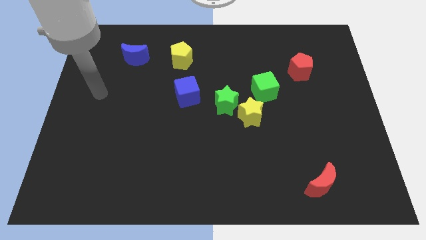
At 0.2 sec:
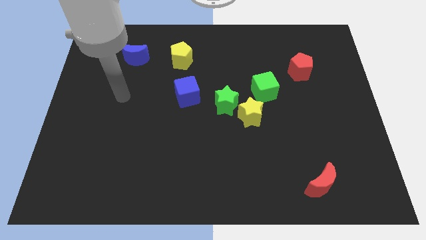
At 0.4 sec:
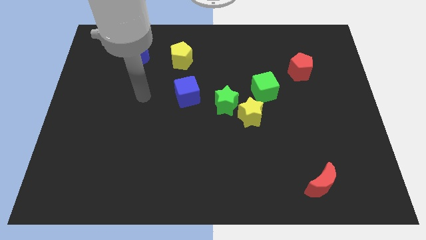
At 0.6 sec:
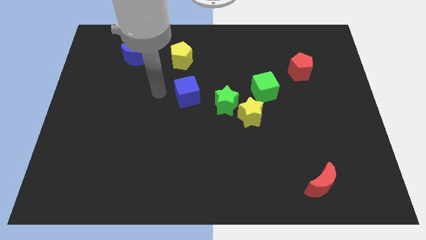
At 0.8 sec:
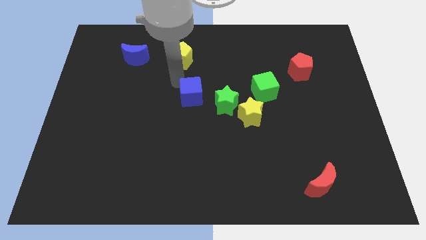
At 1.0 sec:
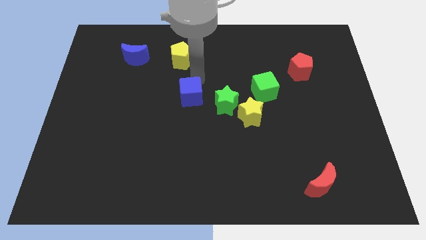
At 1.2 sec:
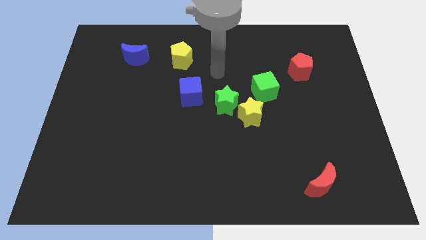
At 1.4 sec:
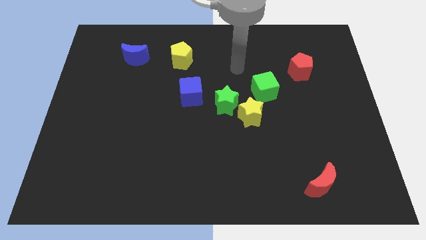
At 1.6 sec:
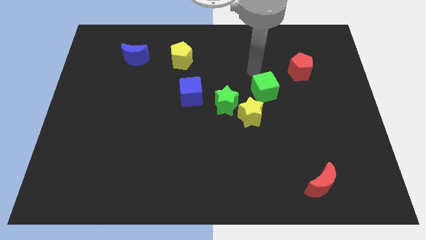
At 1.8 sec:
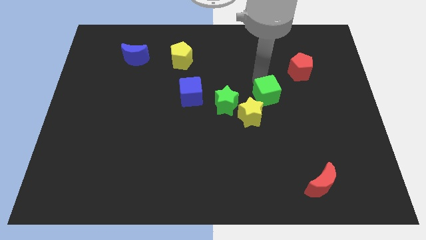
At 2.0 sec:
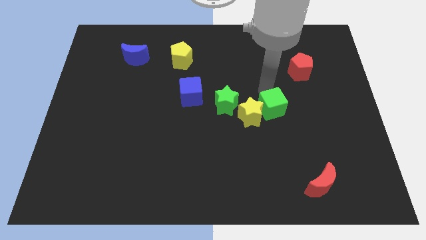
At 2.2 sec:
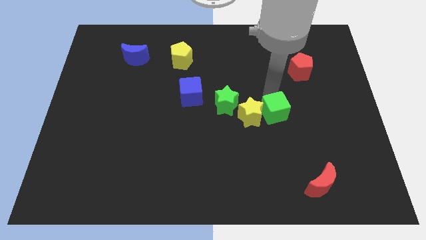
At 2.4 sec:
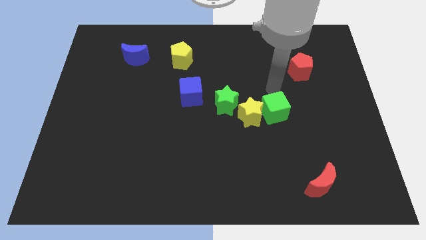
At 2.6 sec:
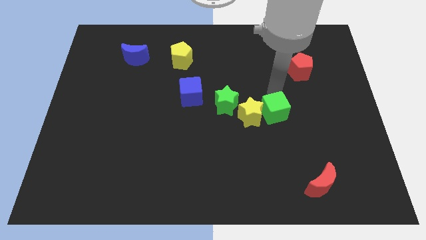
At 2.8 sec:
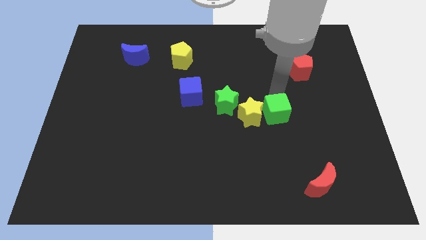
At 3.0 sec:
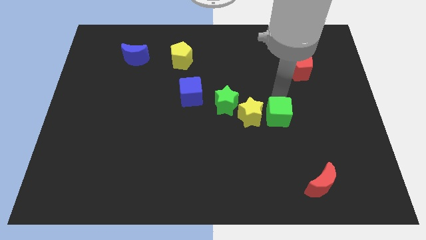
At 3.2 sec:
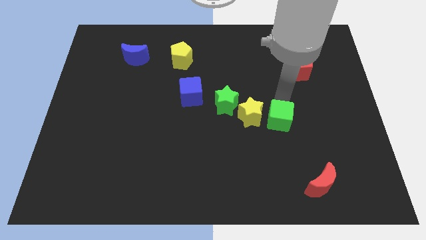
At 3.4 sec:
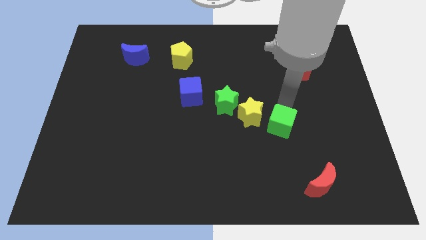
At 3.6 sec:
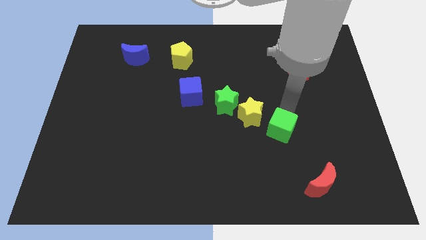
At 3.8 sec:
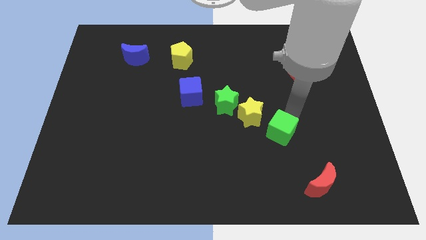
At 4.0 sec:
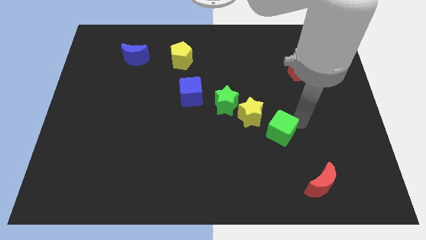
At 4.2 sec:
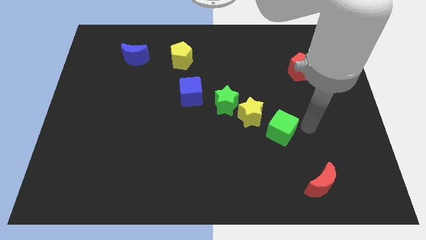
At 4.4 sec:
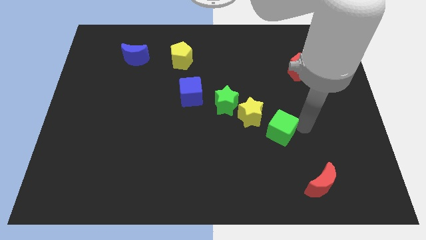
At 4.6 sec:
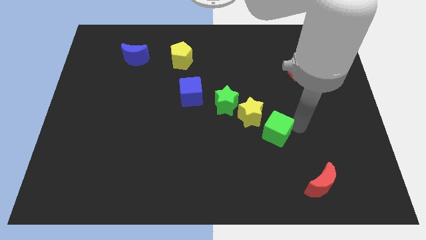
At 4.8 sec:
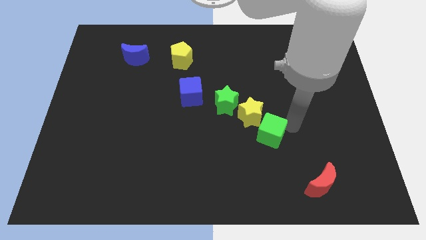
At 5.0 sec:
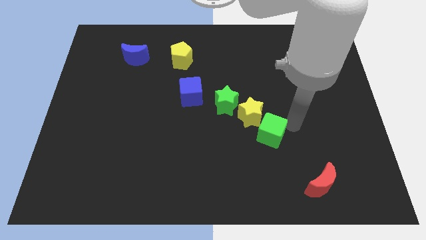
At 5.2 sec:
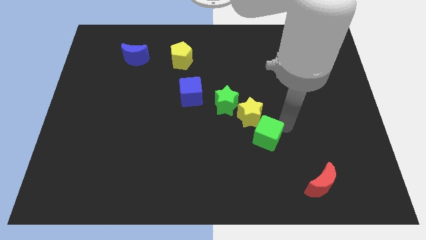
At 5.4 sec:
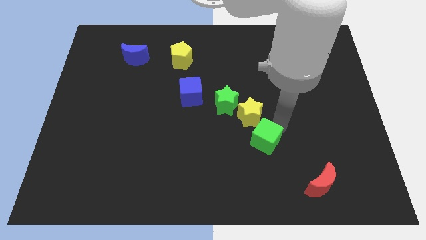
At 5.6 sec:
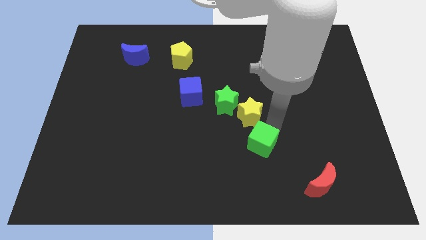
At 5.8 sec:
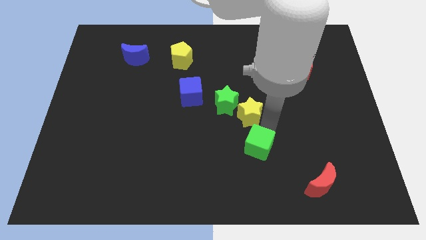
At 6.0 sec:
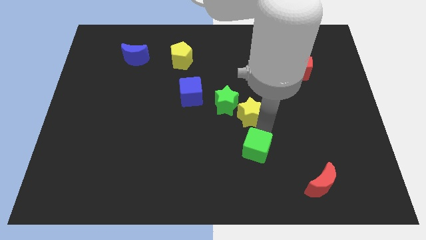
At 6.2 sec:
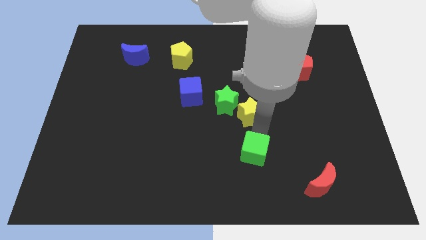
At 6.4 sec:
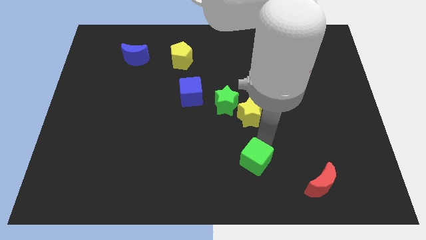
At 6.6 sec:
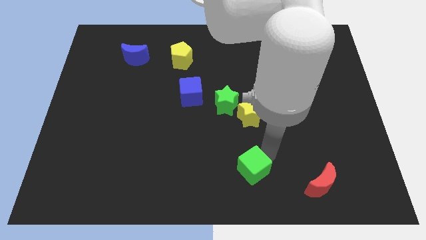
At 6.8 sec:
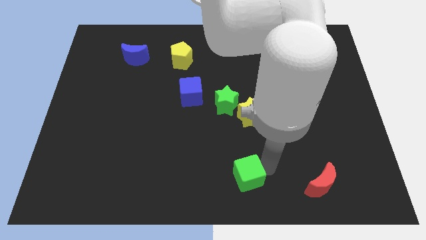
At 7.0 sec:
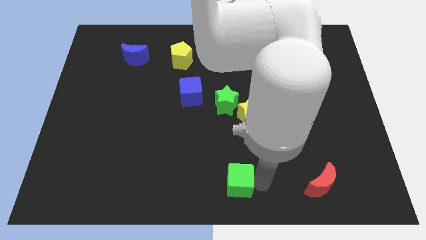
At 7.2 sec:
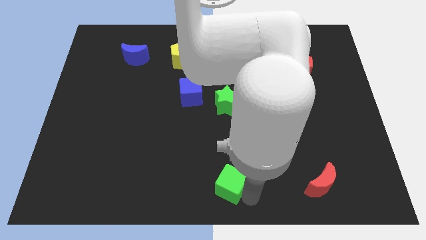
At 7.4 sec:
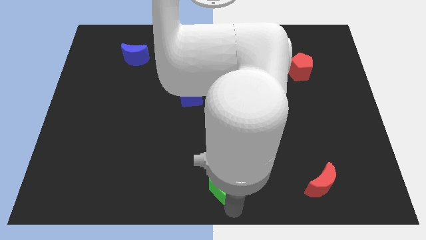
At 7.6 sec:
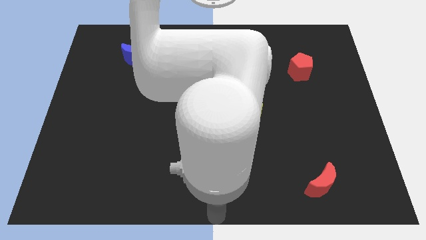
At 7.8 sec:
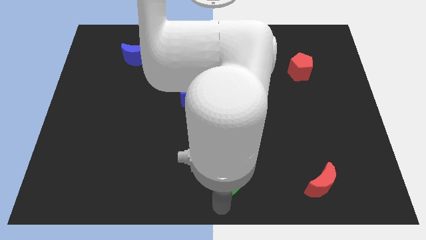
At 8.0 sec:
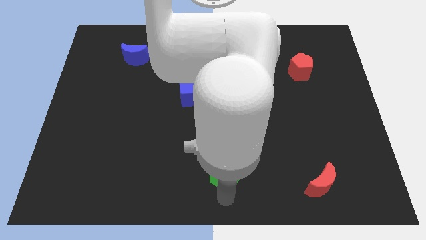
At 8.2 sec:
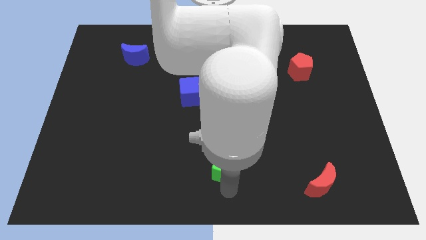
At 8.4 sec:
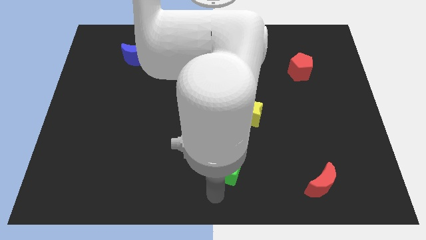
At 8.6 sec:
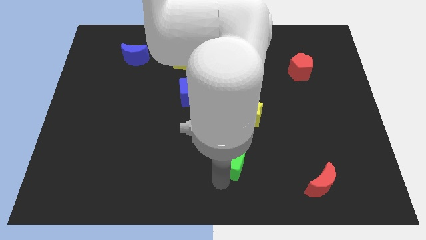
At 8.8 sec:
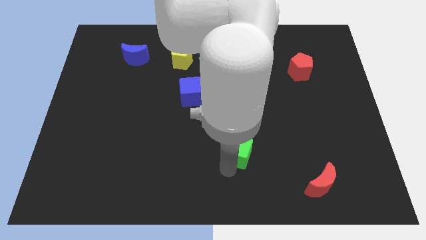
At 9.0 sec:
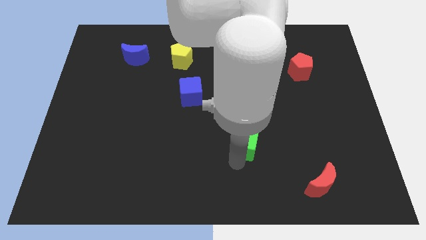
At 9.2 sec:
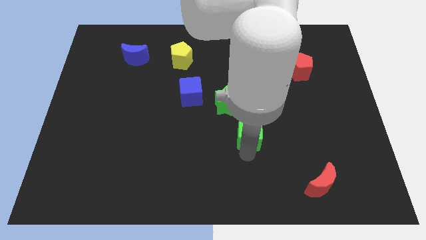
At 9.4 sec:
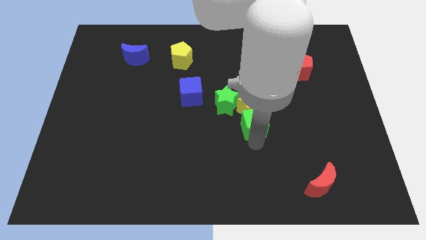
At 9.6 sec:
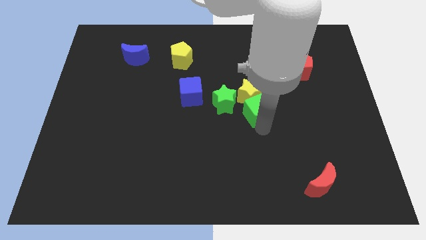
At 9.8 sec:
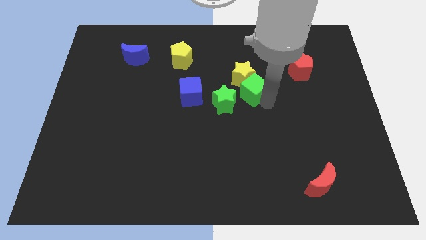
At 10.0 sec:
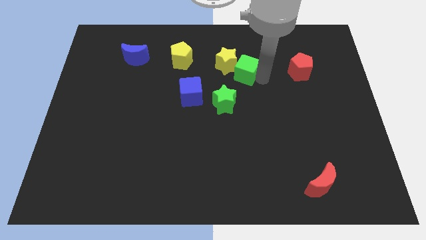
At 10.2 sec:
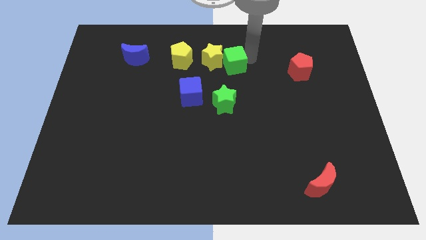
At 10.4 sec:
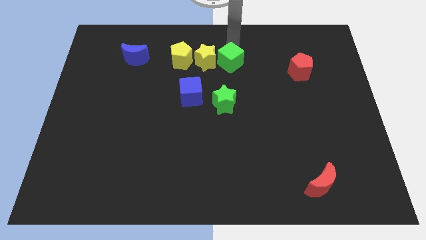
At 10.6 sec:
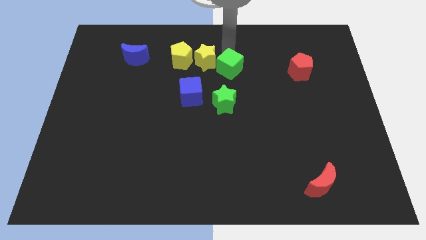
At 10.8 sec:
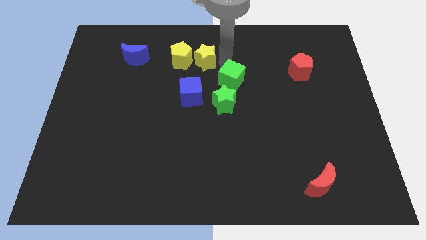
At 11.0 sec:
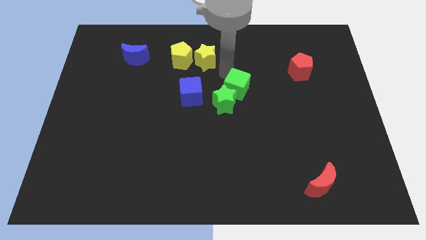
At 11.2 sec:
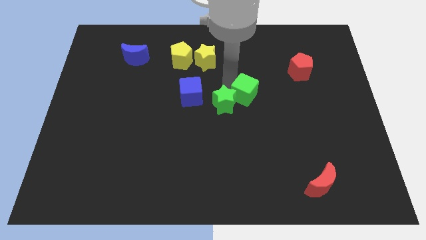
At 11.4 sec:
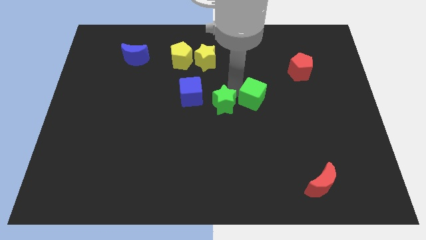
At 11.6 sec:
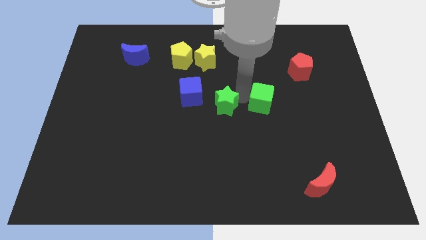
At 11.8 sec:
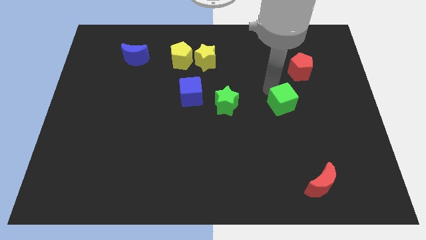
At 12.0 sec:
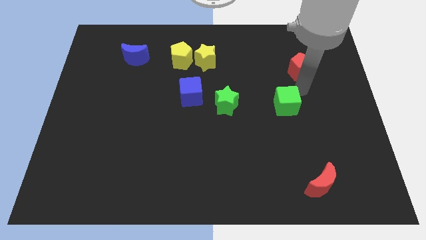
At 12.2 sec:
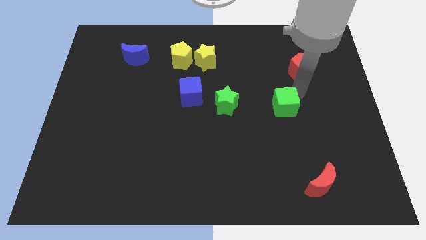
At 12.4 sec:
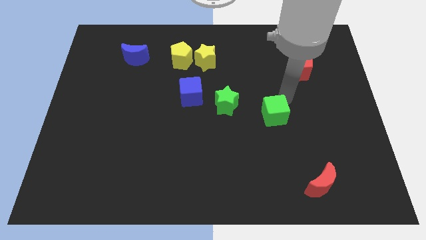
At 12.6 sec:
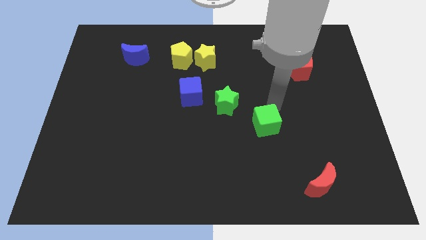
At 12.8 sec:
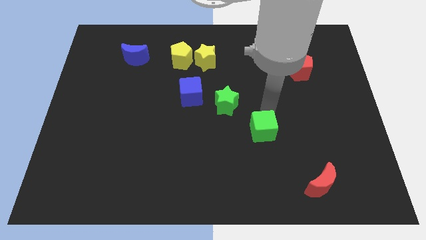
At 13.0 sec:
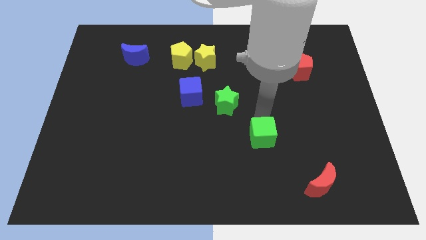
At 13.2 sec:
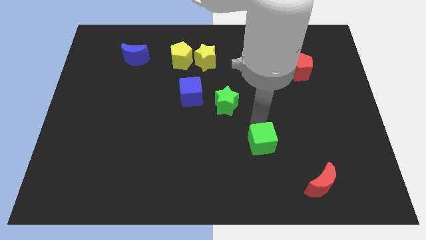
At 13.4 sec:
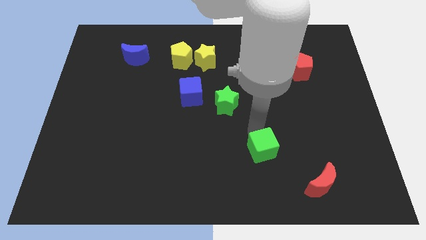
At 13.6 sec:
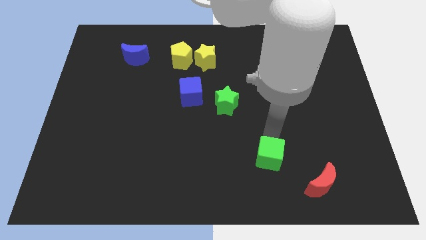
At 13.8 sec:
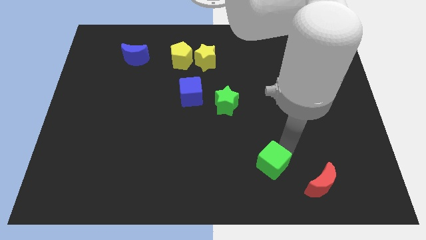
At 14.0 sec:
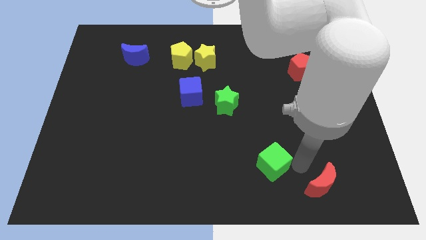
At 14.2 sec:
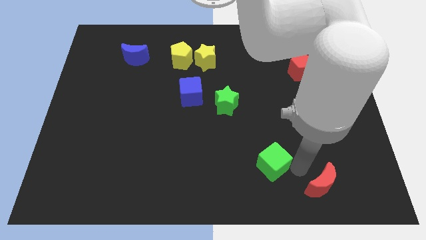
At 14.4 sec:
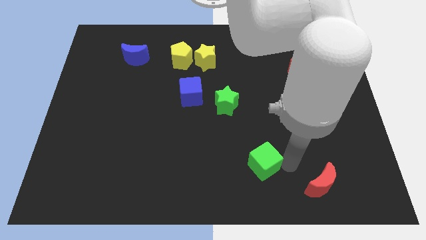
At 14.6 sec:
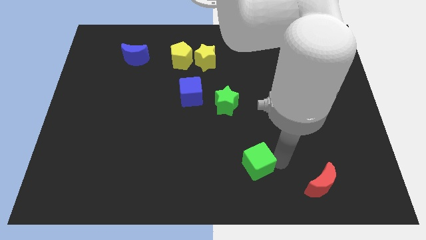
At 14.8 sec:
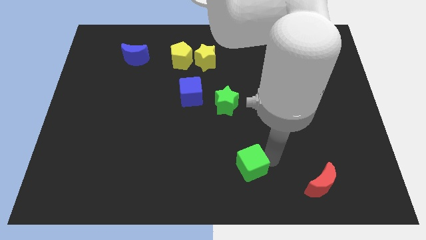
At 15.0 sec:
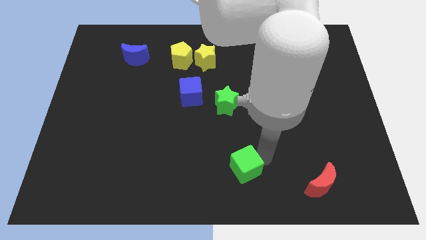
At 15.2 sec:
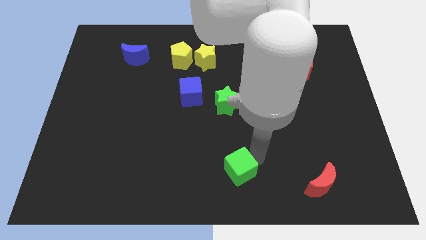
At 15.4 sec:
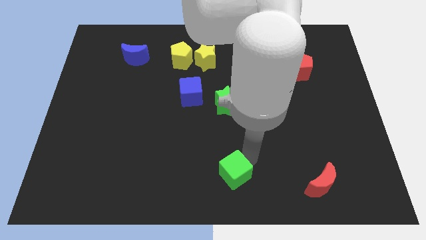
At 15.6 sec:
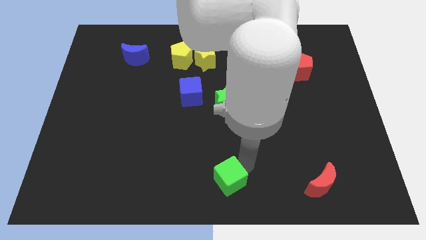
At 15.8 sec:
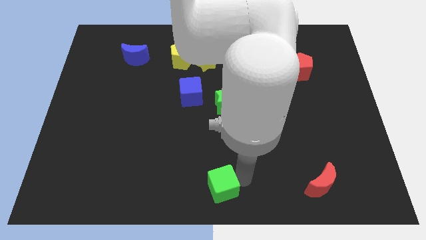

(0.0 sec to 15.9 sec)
push the green cube down and to the left

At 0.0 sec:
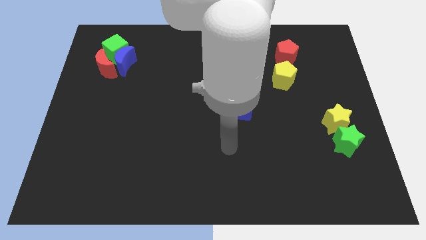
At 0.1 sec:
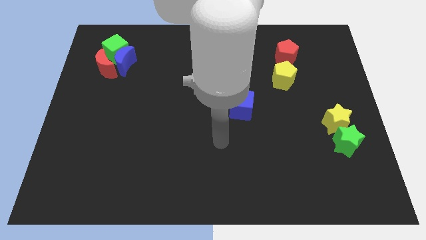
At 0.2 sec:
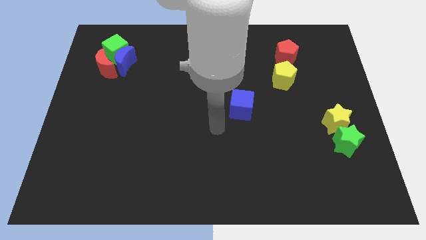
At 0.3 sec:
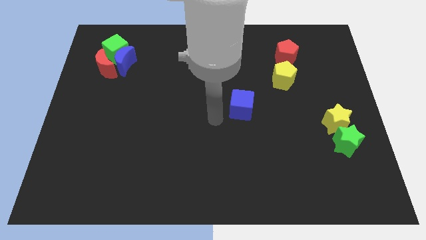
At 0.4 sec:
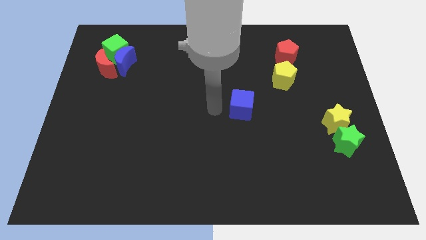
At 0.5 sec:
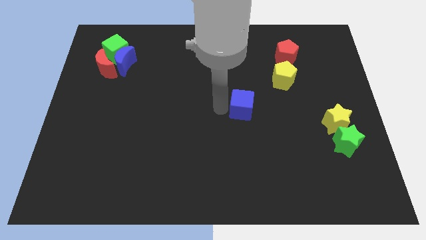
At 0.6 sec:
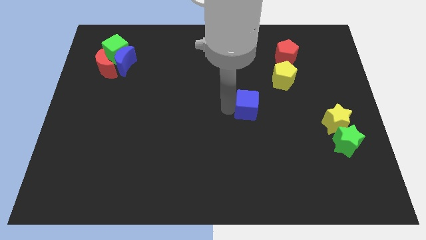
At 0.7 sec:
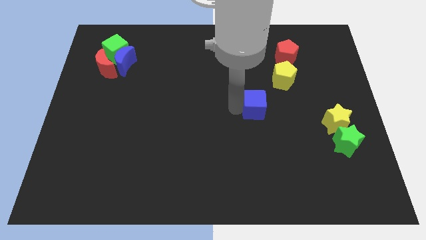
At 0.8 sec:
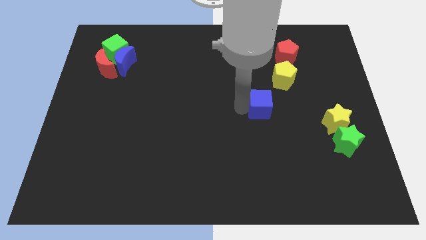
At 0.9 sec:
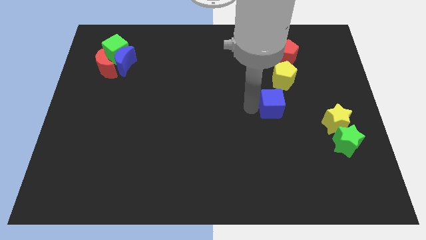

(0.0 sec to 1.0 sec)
push the blue cube somewhat to the right
